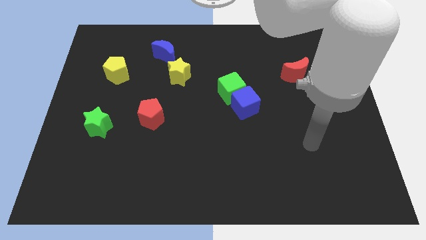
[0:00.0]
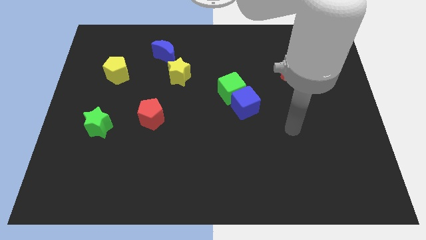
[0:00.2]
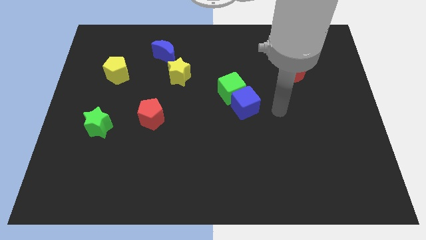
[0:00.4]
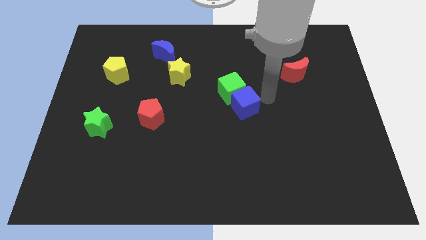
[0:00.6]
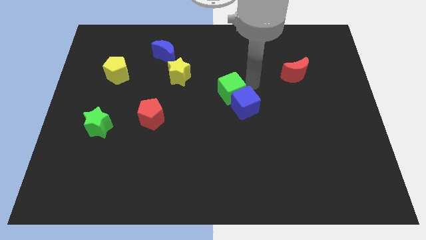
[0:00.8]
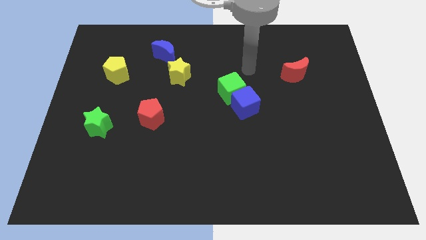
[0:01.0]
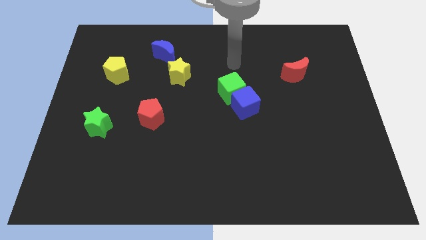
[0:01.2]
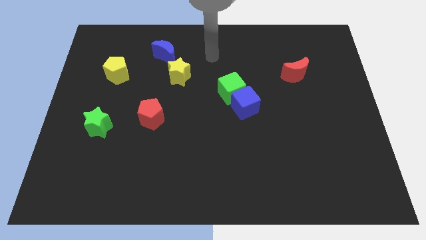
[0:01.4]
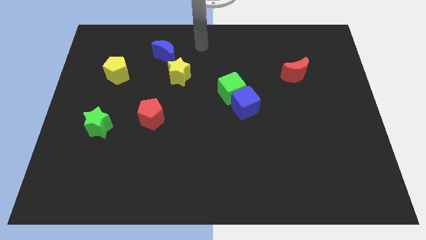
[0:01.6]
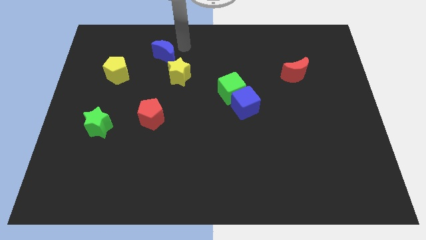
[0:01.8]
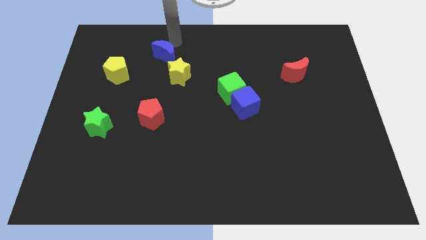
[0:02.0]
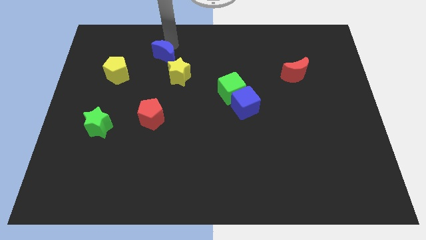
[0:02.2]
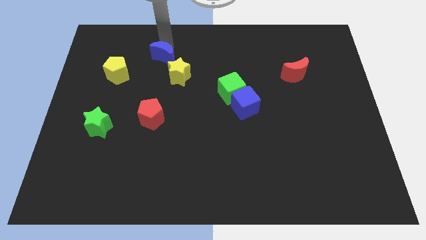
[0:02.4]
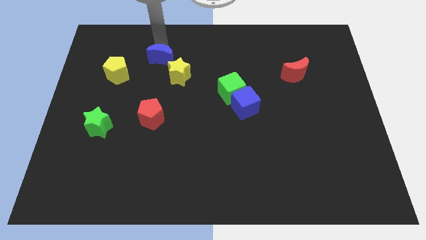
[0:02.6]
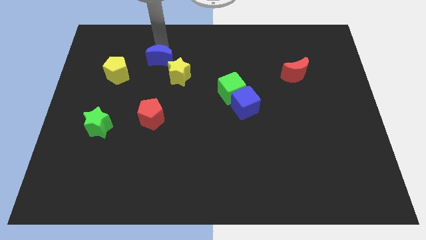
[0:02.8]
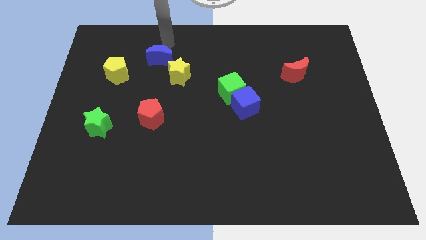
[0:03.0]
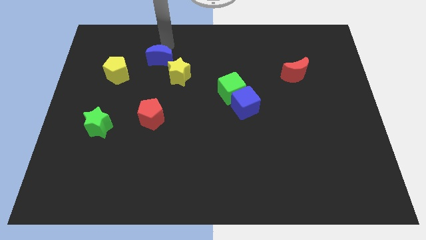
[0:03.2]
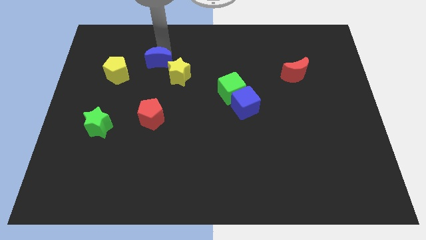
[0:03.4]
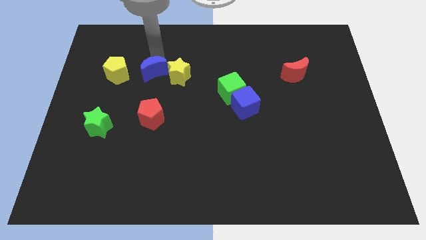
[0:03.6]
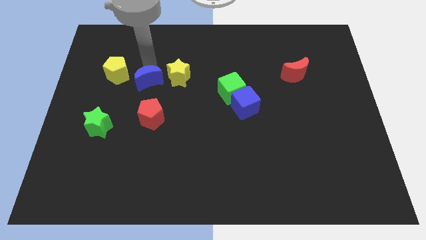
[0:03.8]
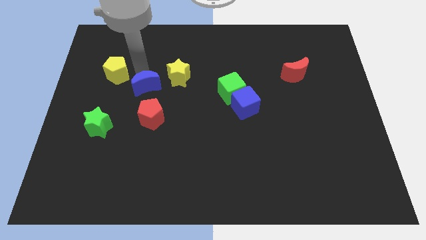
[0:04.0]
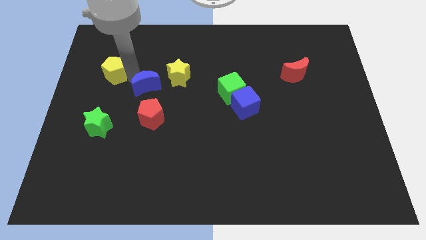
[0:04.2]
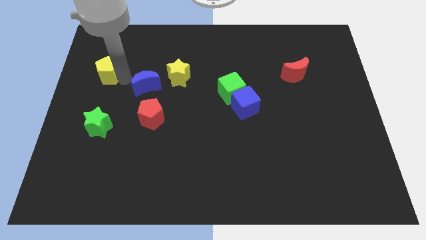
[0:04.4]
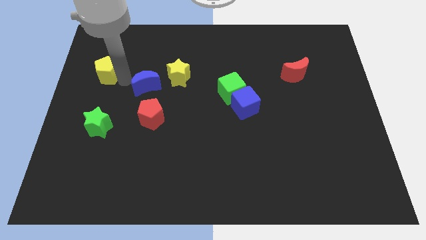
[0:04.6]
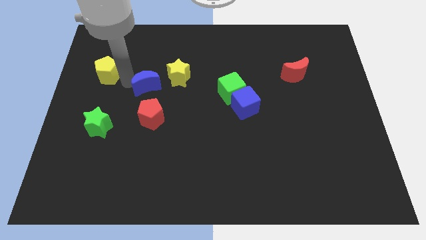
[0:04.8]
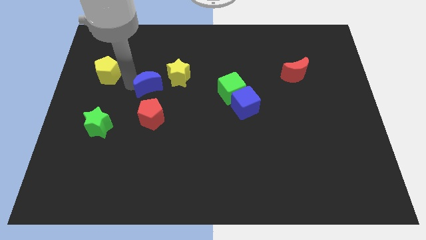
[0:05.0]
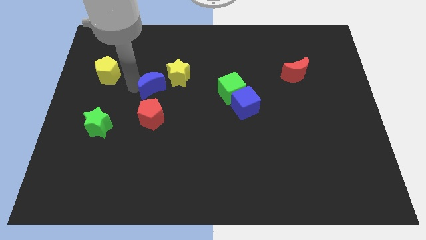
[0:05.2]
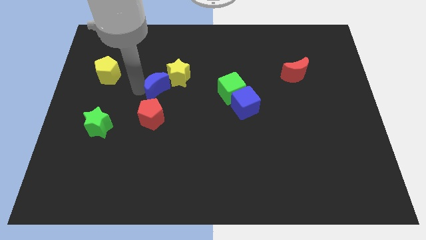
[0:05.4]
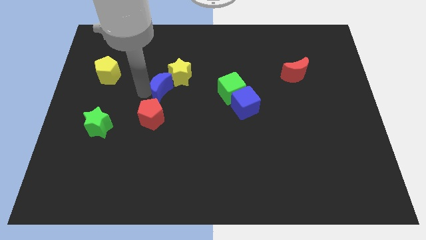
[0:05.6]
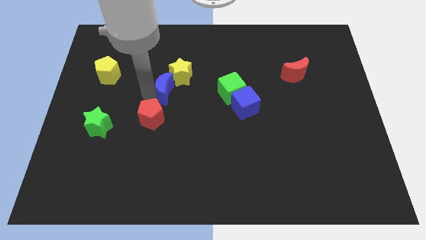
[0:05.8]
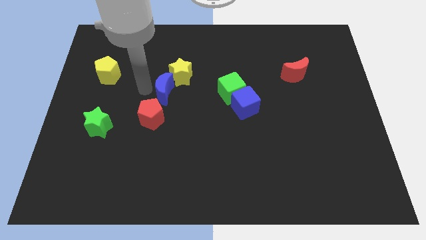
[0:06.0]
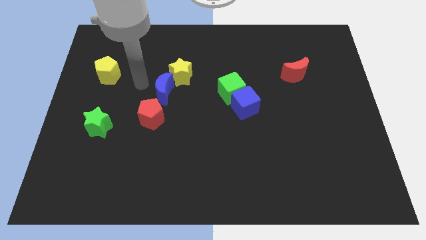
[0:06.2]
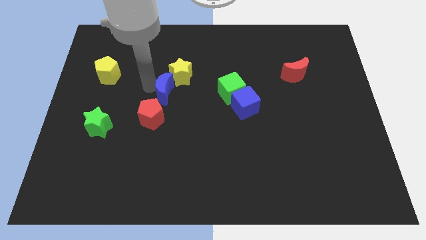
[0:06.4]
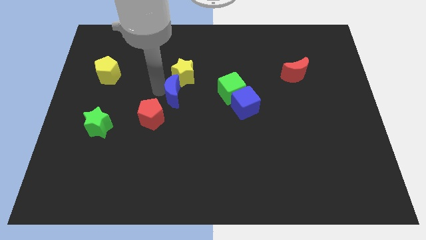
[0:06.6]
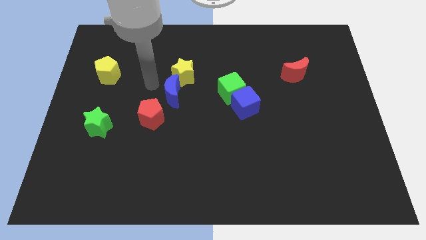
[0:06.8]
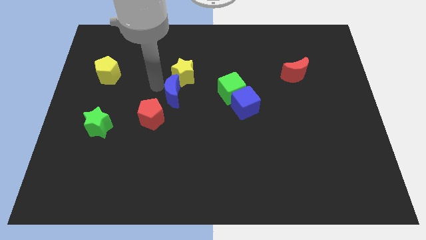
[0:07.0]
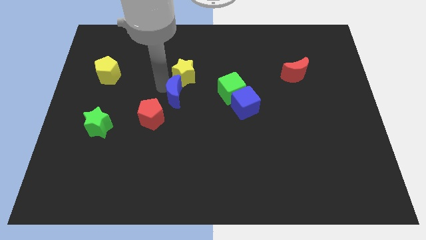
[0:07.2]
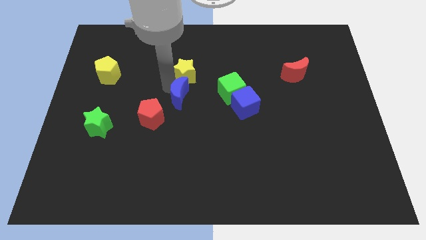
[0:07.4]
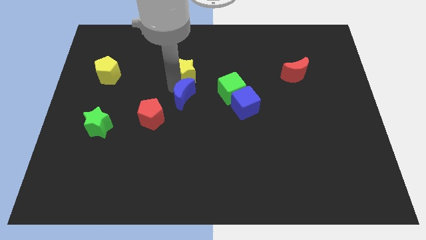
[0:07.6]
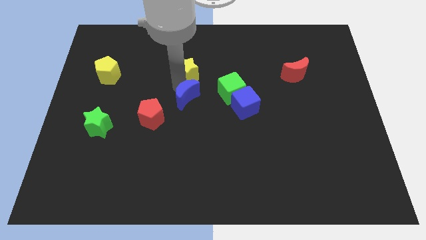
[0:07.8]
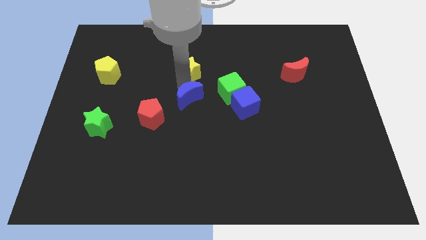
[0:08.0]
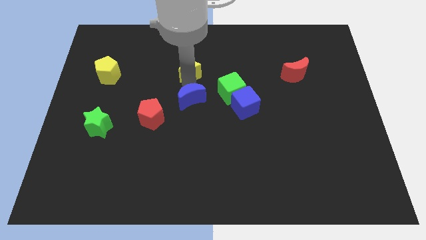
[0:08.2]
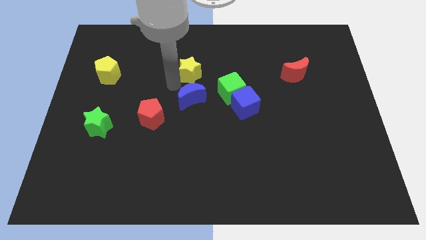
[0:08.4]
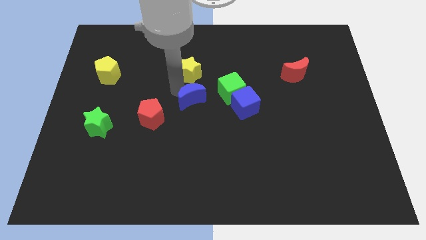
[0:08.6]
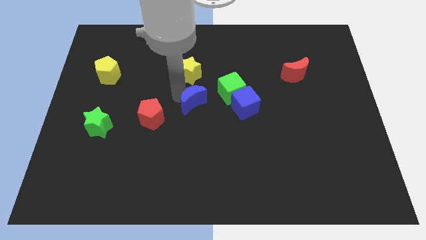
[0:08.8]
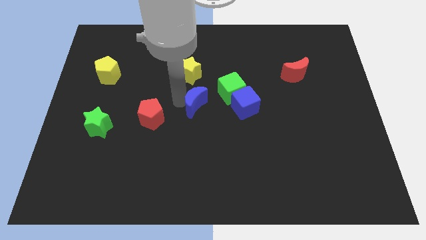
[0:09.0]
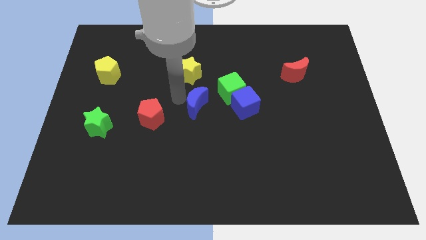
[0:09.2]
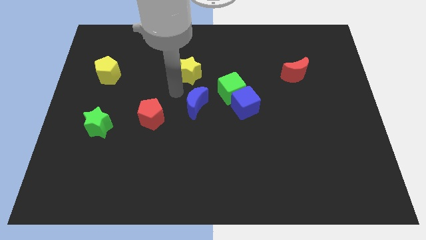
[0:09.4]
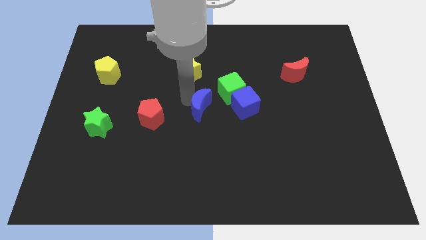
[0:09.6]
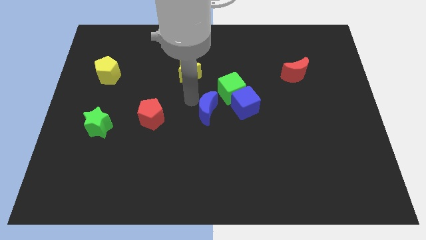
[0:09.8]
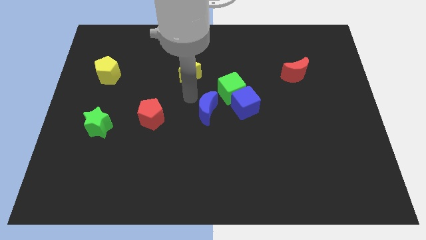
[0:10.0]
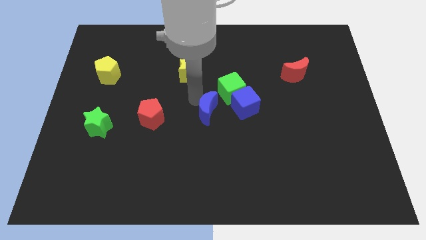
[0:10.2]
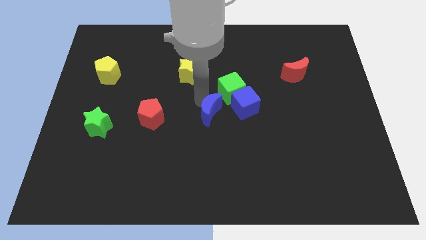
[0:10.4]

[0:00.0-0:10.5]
push the blue moon diagonally down and to the left of the blue cube

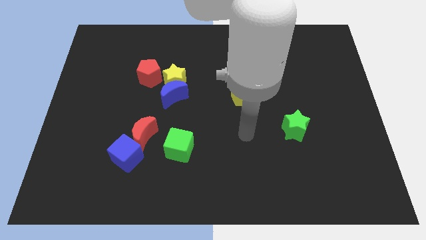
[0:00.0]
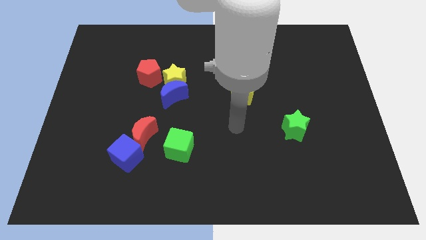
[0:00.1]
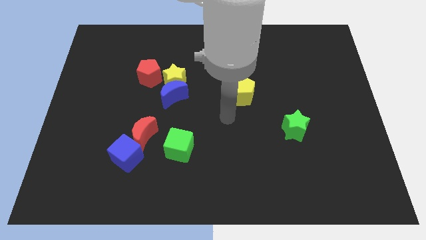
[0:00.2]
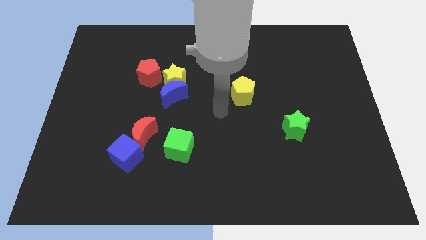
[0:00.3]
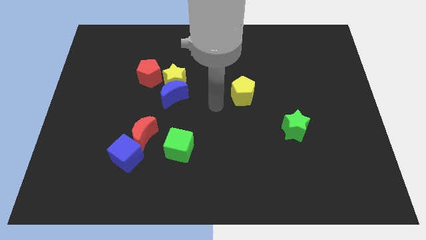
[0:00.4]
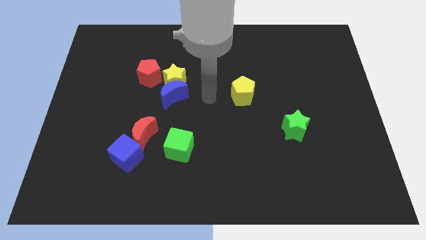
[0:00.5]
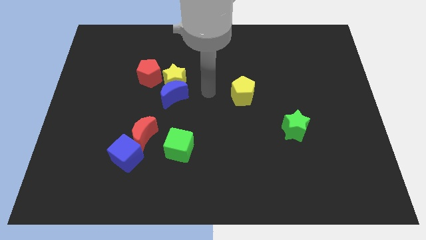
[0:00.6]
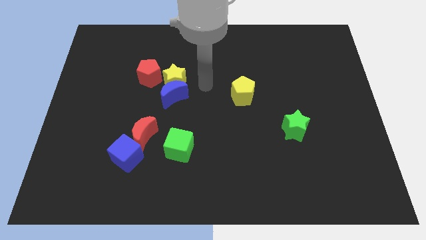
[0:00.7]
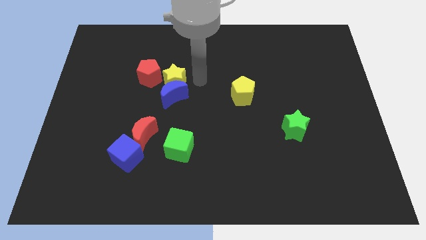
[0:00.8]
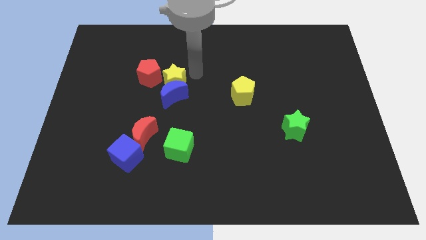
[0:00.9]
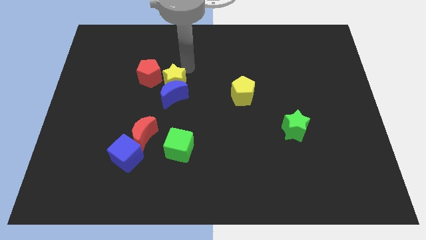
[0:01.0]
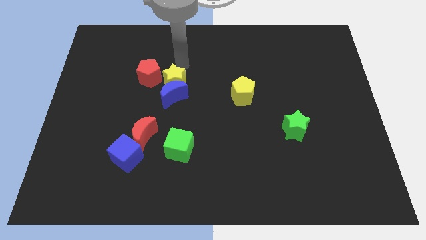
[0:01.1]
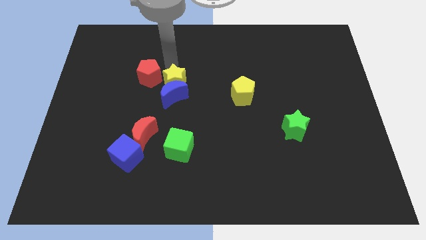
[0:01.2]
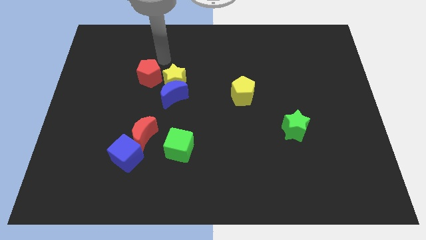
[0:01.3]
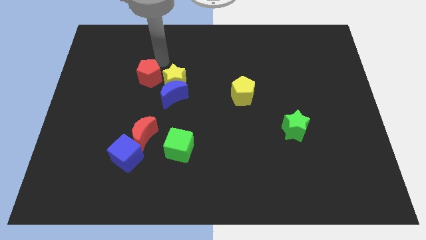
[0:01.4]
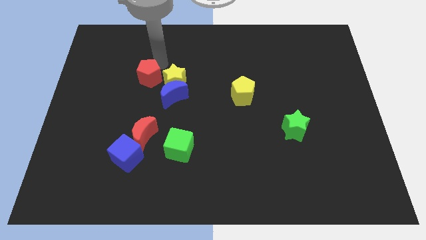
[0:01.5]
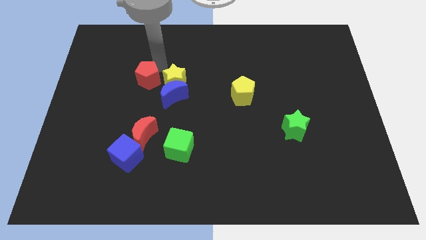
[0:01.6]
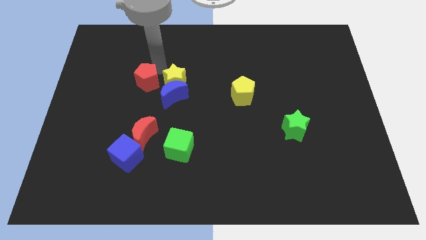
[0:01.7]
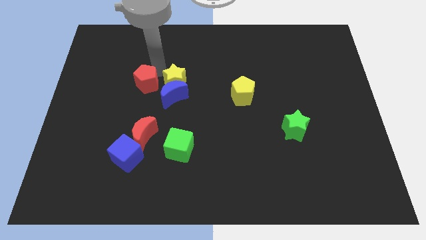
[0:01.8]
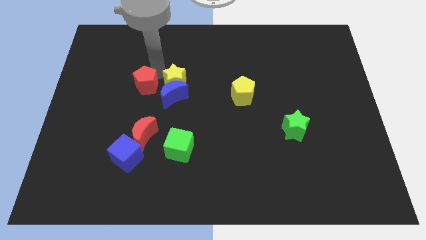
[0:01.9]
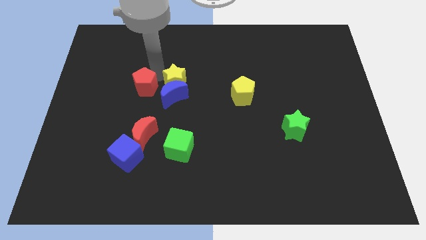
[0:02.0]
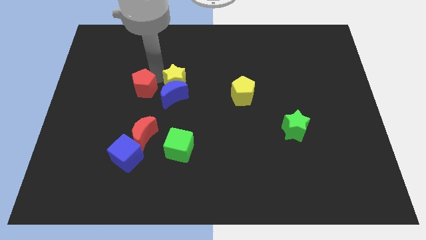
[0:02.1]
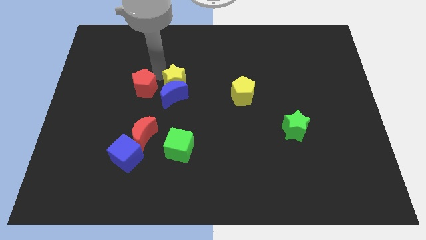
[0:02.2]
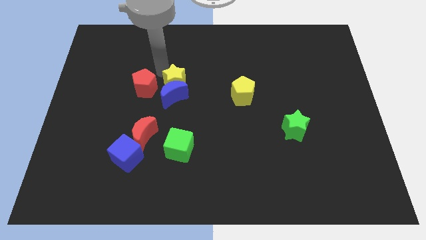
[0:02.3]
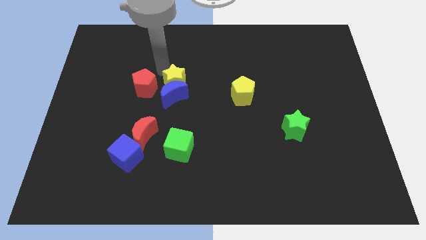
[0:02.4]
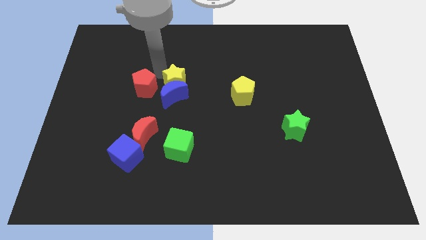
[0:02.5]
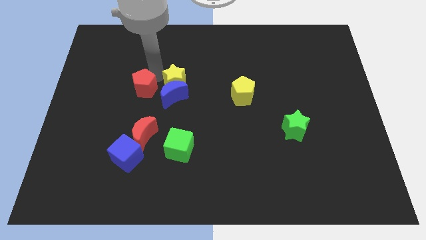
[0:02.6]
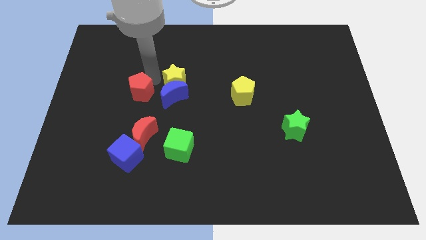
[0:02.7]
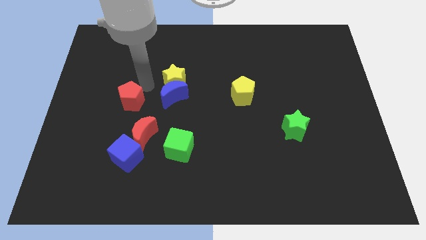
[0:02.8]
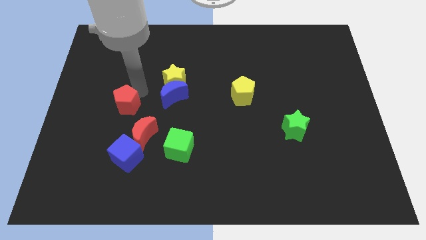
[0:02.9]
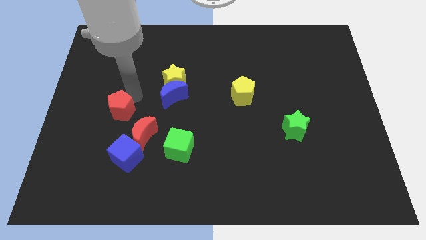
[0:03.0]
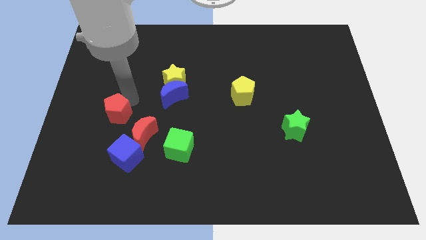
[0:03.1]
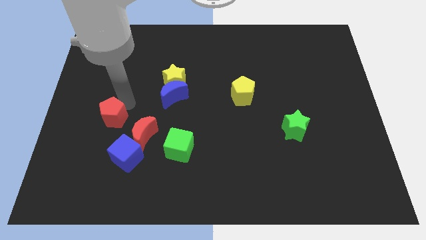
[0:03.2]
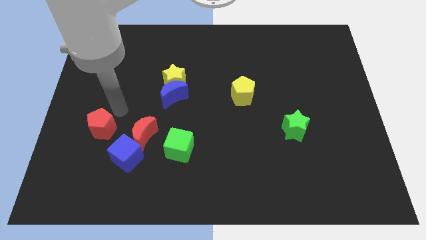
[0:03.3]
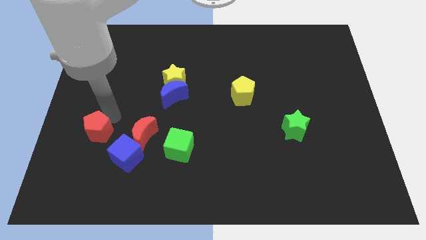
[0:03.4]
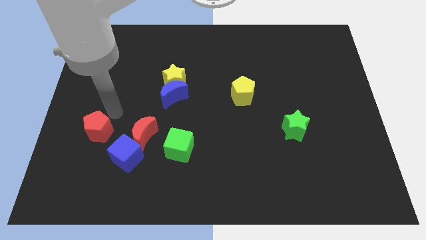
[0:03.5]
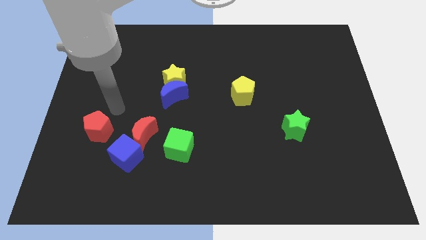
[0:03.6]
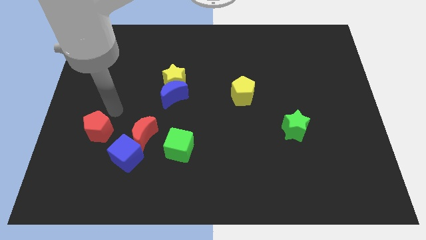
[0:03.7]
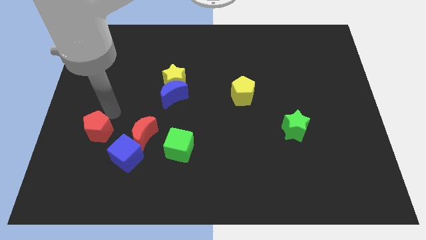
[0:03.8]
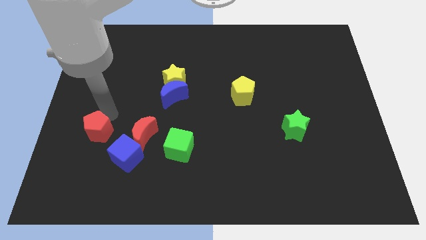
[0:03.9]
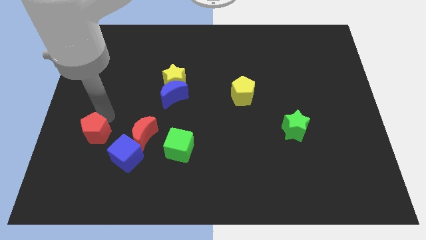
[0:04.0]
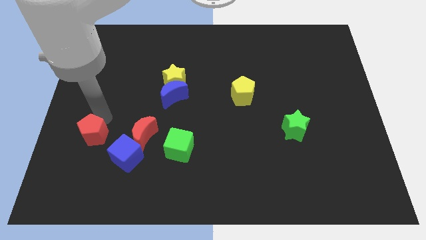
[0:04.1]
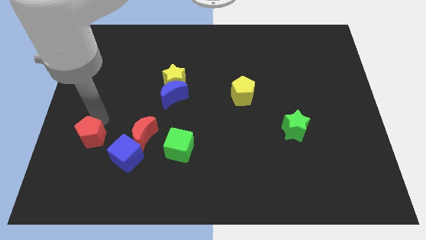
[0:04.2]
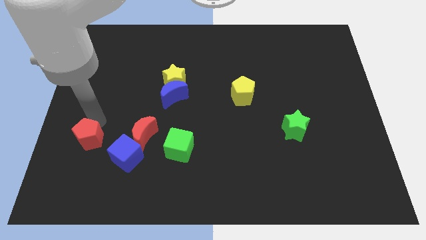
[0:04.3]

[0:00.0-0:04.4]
put the red pentagon left of the blue cube
